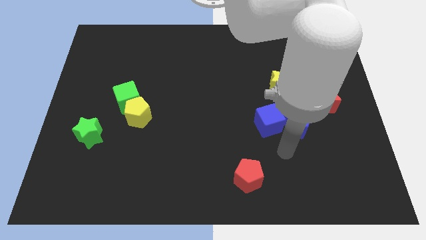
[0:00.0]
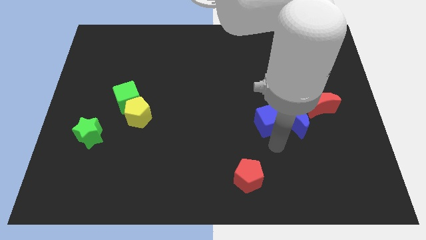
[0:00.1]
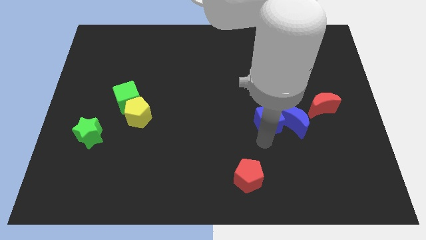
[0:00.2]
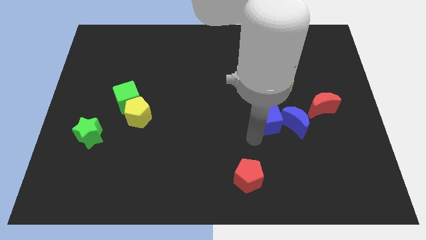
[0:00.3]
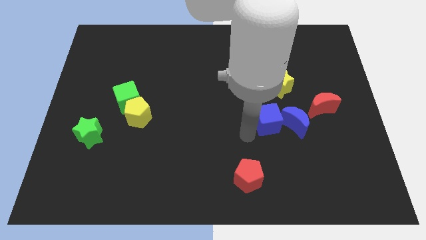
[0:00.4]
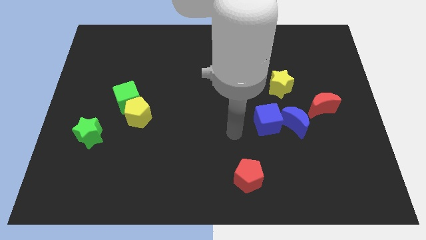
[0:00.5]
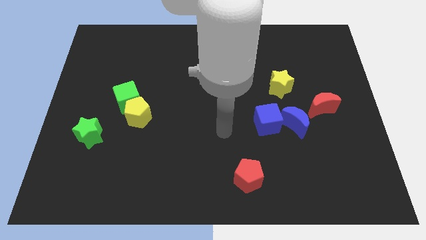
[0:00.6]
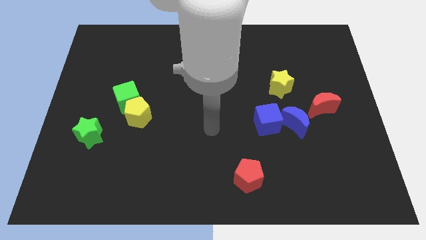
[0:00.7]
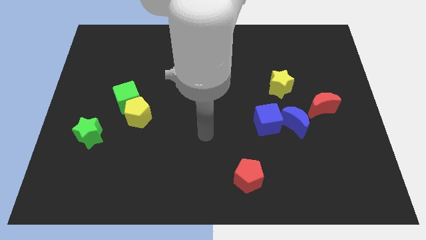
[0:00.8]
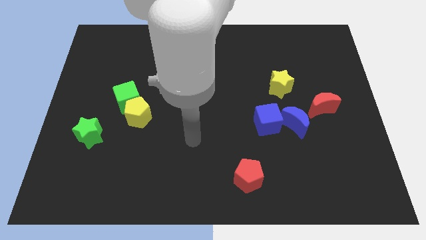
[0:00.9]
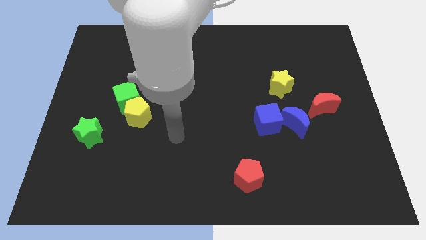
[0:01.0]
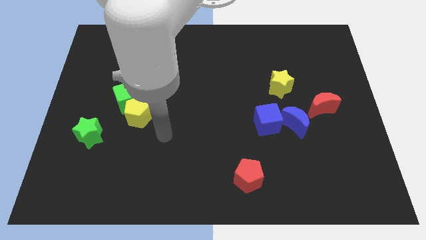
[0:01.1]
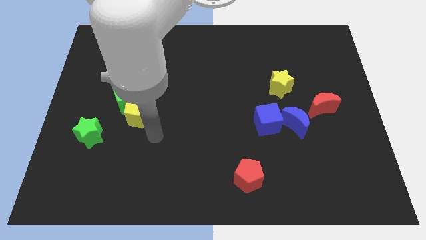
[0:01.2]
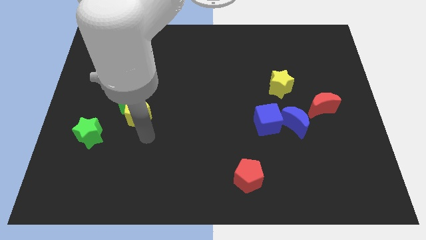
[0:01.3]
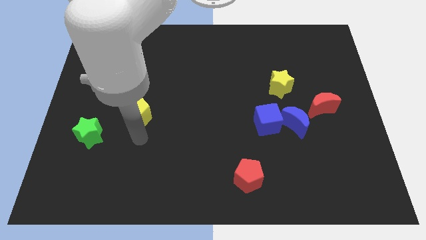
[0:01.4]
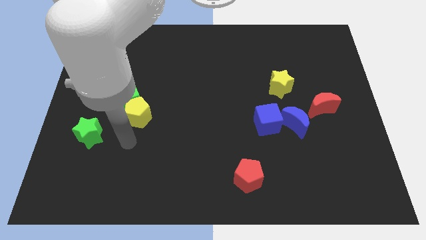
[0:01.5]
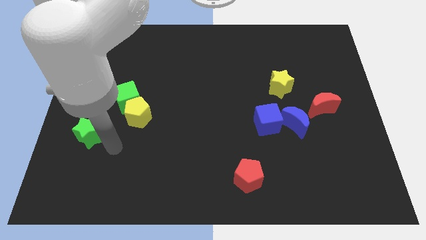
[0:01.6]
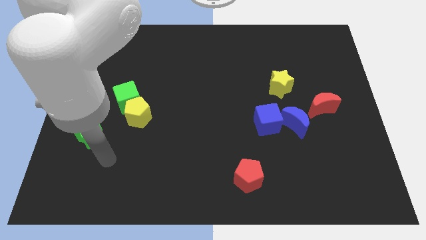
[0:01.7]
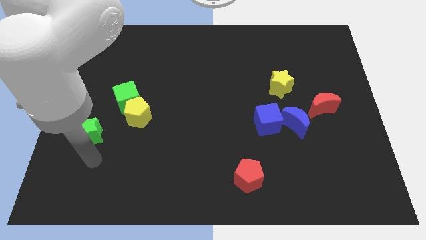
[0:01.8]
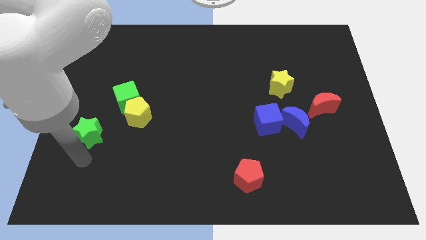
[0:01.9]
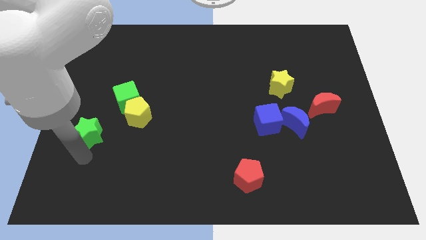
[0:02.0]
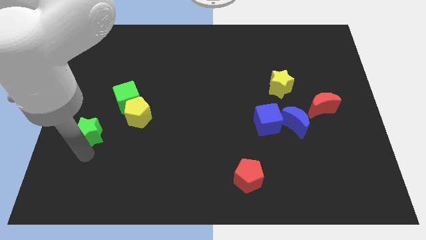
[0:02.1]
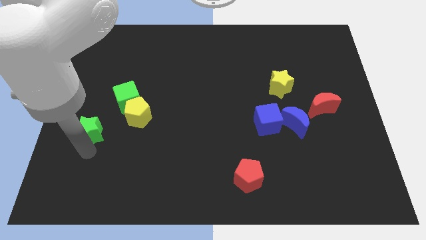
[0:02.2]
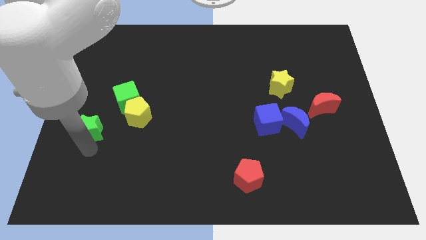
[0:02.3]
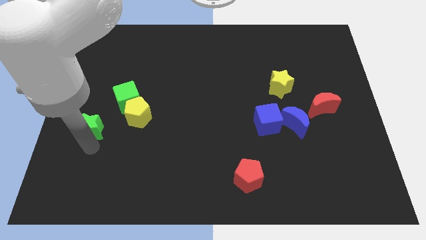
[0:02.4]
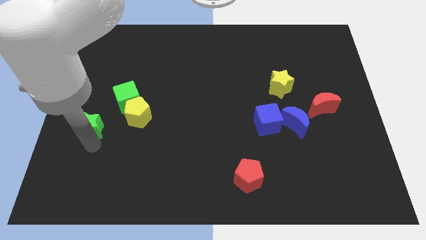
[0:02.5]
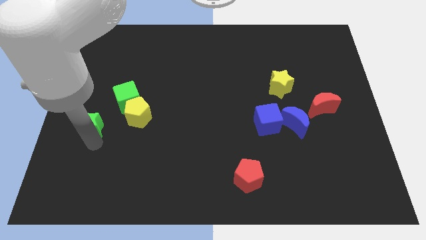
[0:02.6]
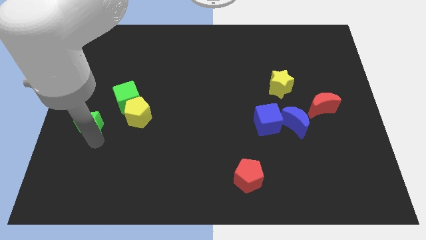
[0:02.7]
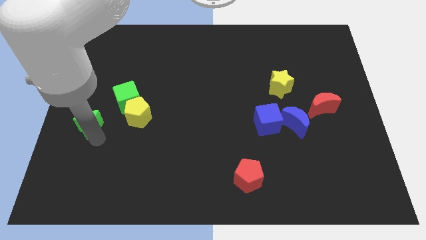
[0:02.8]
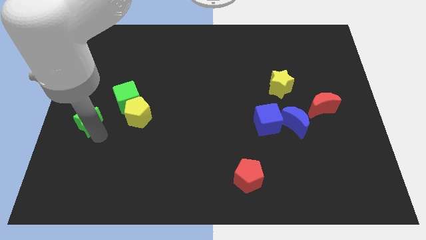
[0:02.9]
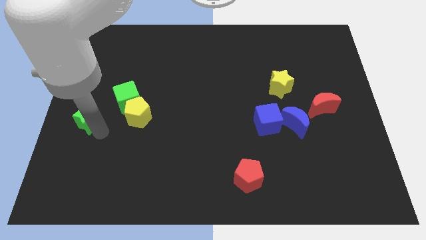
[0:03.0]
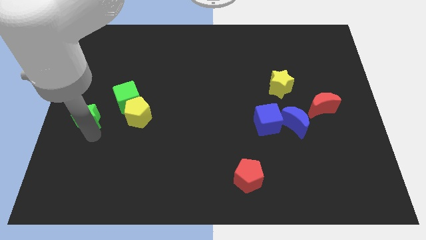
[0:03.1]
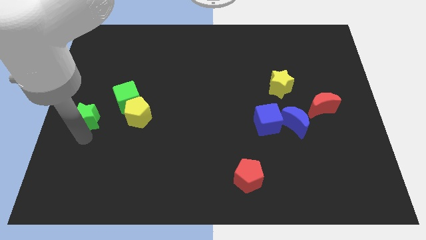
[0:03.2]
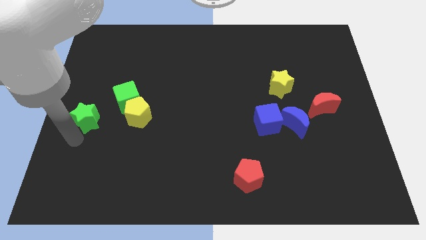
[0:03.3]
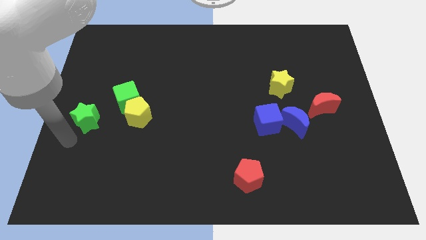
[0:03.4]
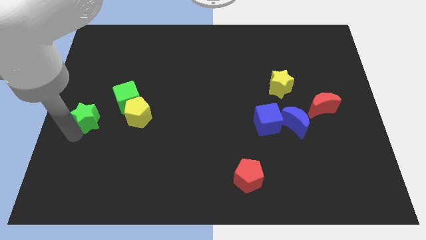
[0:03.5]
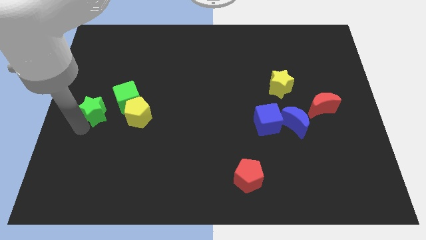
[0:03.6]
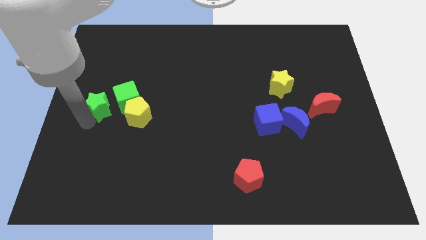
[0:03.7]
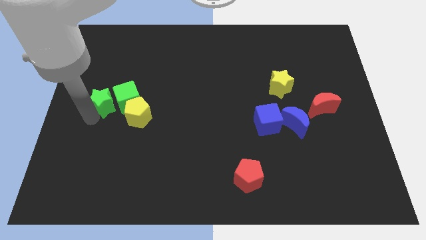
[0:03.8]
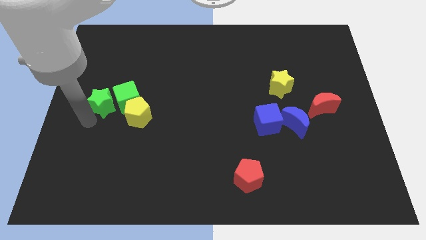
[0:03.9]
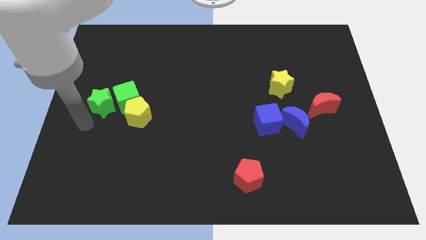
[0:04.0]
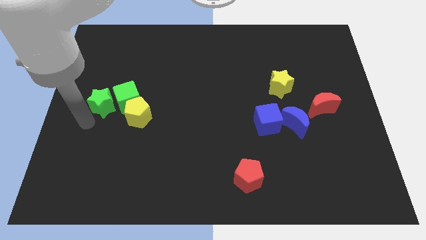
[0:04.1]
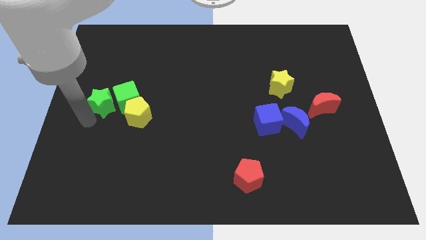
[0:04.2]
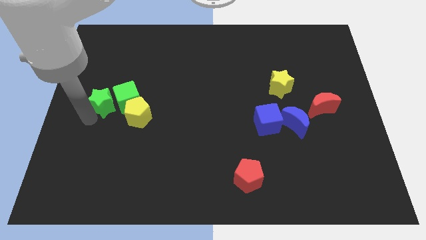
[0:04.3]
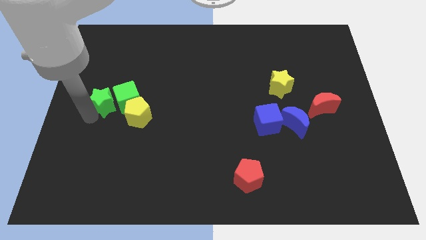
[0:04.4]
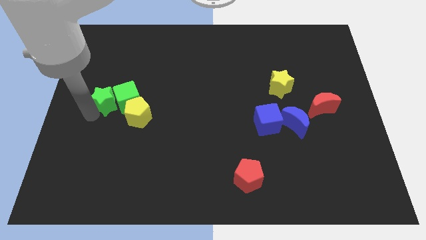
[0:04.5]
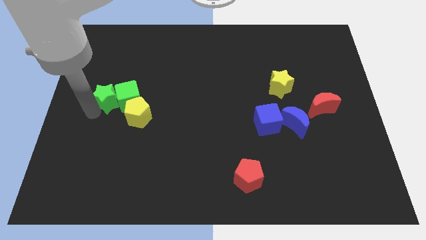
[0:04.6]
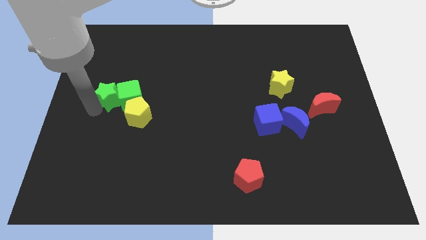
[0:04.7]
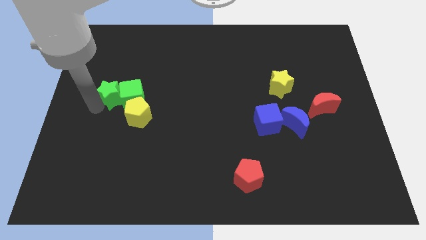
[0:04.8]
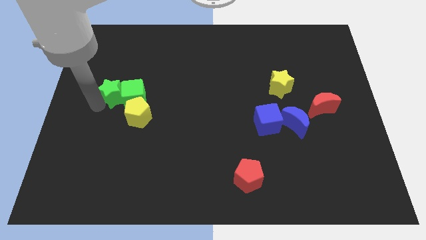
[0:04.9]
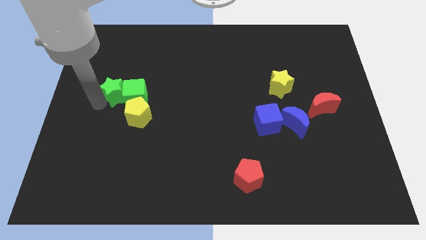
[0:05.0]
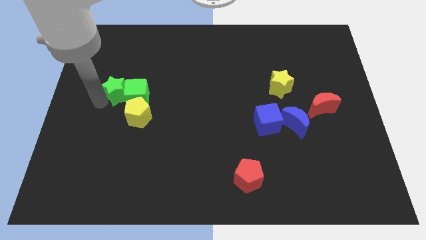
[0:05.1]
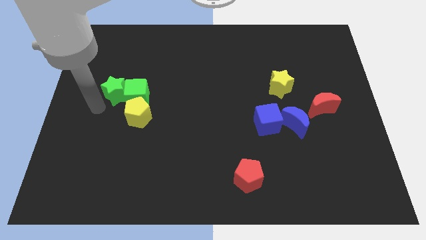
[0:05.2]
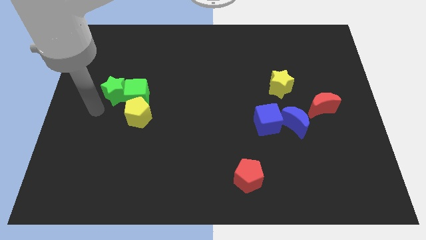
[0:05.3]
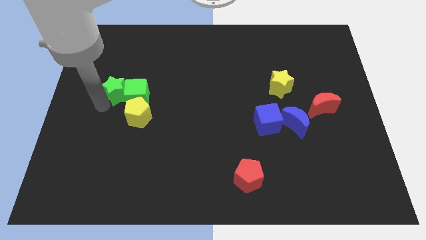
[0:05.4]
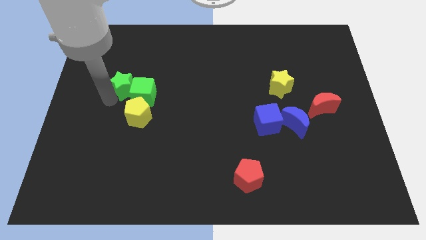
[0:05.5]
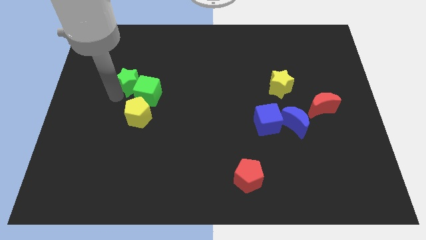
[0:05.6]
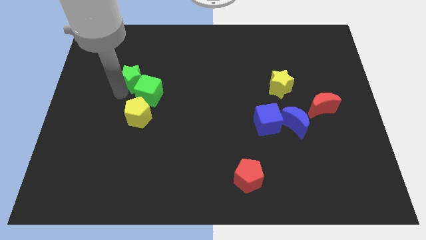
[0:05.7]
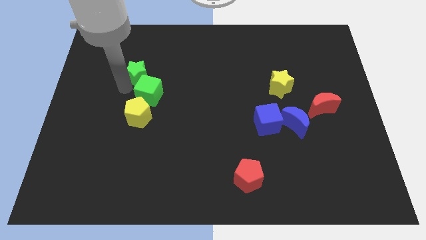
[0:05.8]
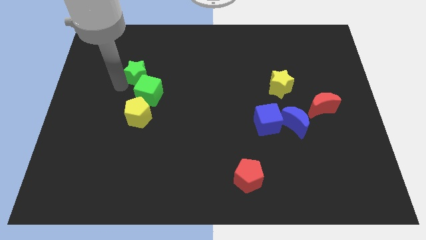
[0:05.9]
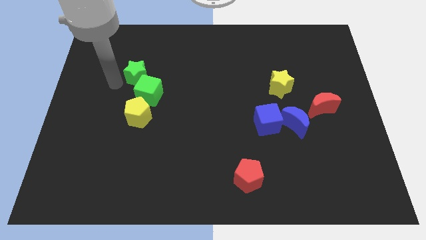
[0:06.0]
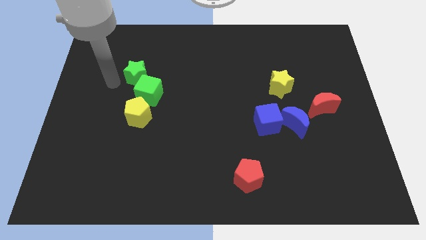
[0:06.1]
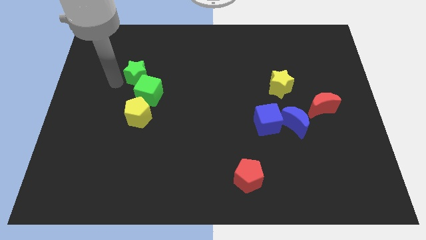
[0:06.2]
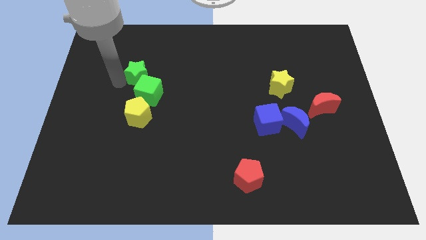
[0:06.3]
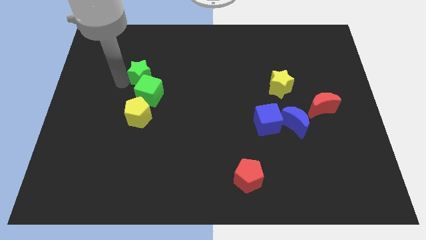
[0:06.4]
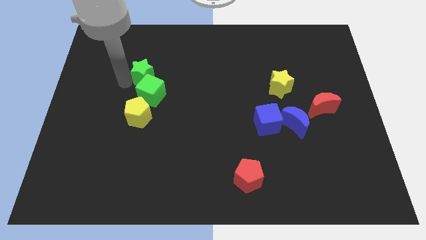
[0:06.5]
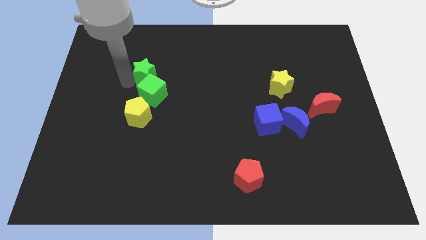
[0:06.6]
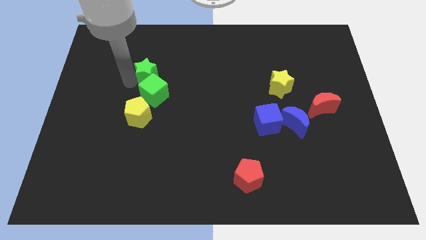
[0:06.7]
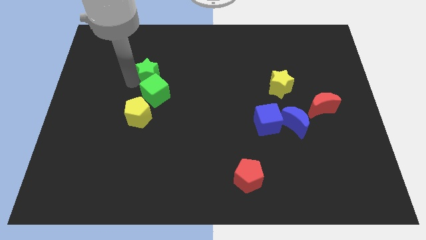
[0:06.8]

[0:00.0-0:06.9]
push the green star diagonally up and right

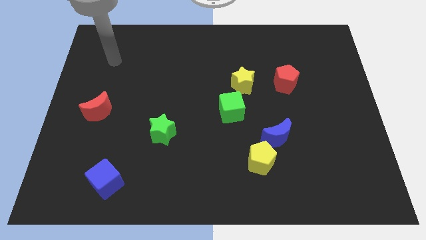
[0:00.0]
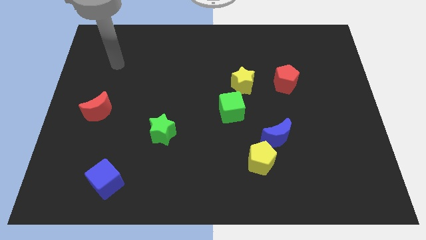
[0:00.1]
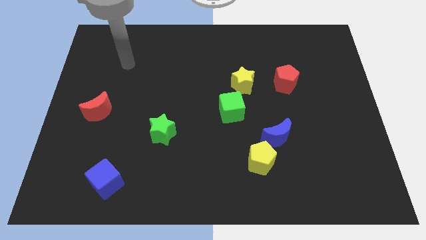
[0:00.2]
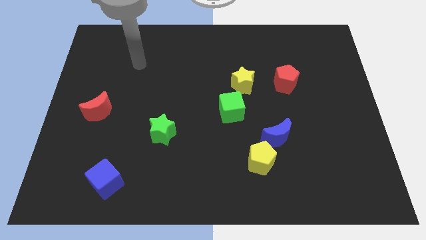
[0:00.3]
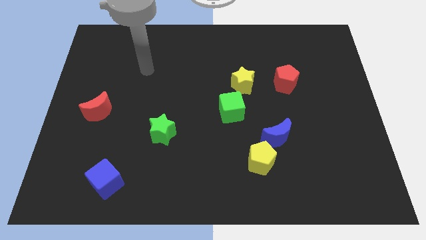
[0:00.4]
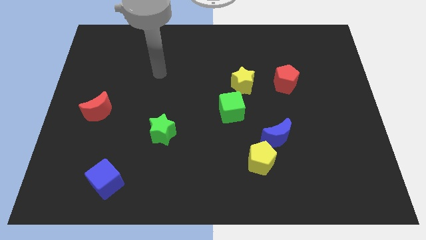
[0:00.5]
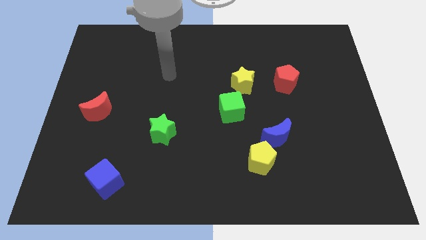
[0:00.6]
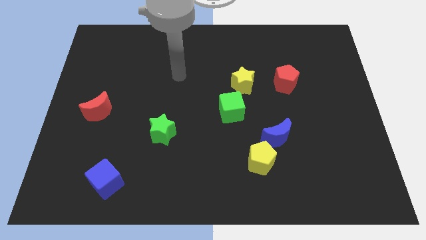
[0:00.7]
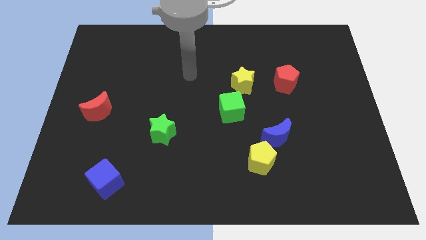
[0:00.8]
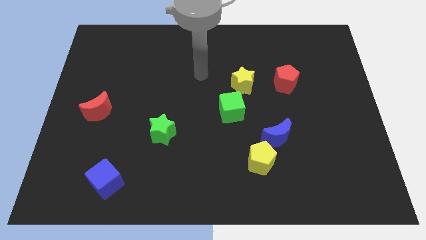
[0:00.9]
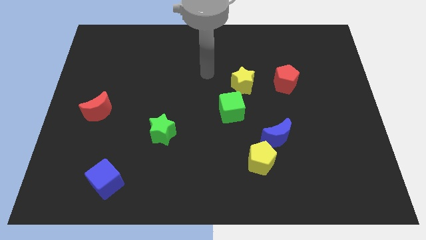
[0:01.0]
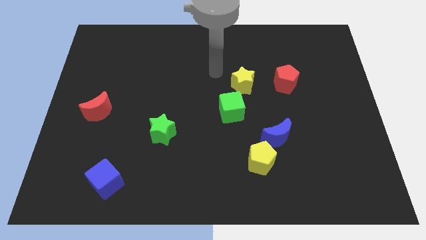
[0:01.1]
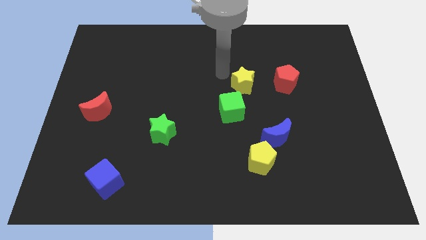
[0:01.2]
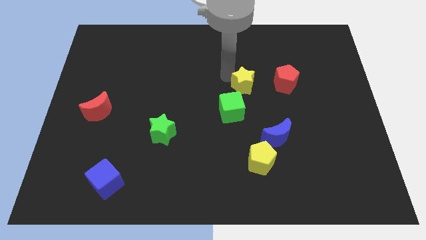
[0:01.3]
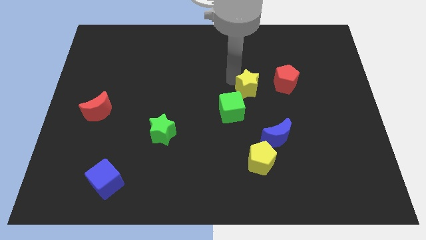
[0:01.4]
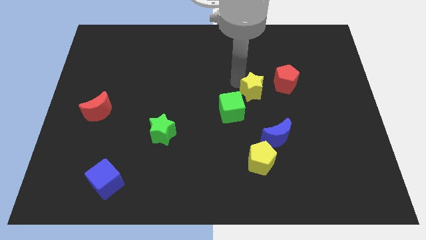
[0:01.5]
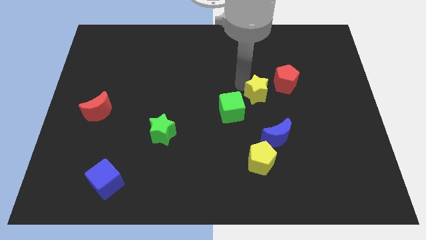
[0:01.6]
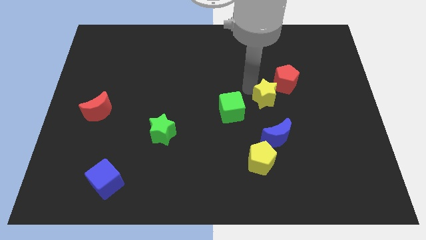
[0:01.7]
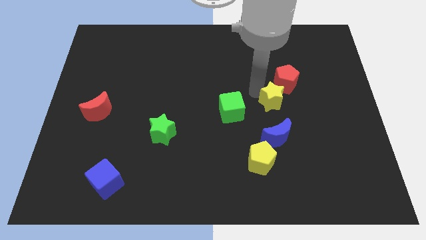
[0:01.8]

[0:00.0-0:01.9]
move the yellow star diagonally downwards and right a little
